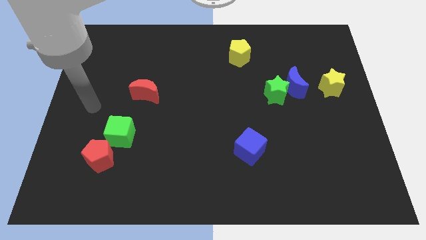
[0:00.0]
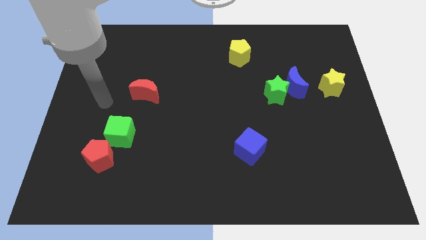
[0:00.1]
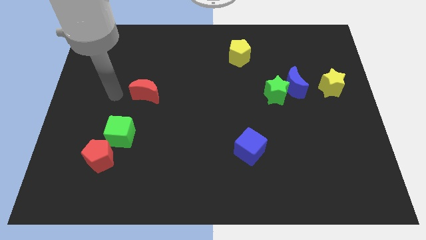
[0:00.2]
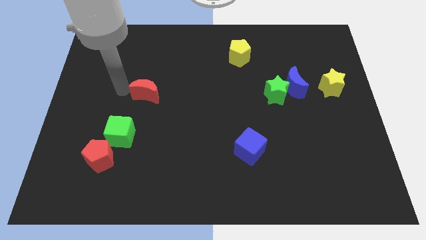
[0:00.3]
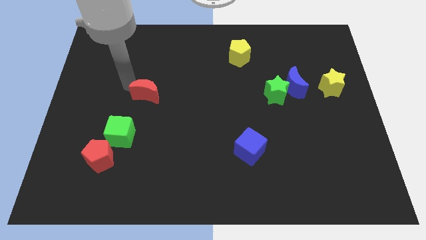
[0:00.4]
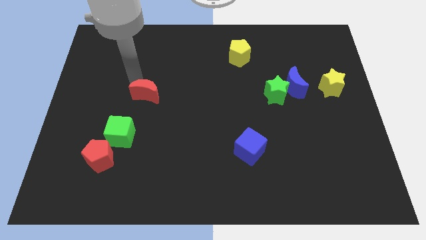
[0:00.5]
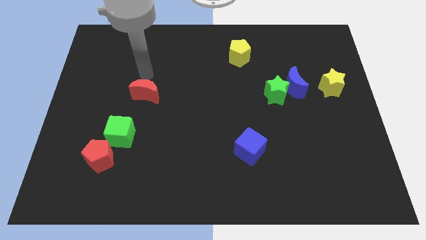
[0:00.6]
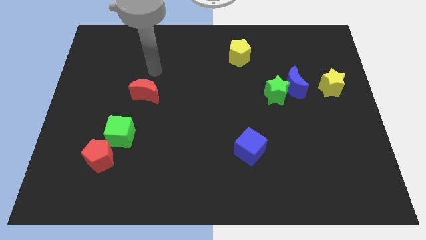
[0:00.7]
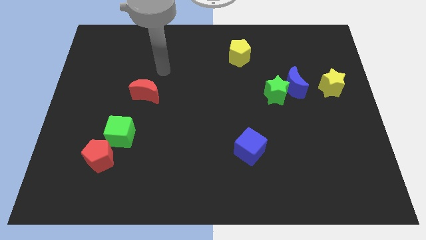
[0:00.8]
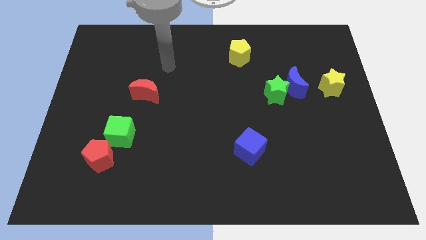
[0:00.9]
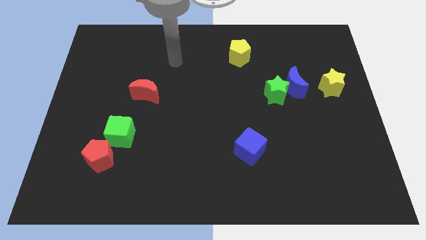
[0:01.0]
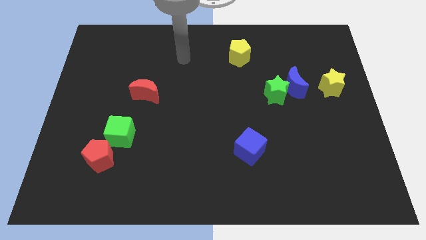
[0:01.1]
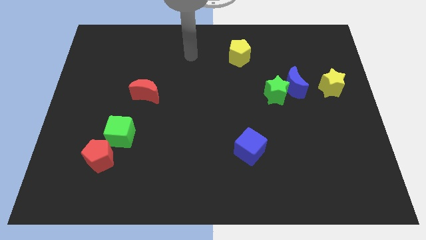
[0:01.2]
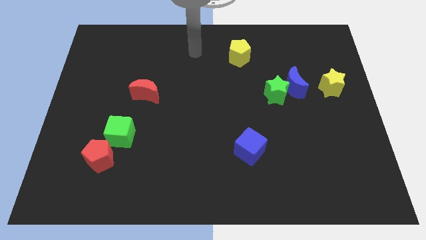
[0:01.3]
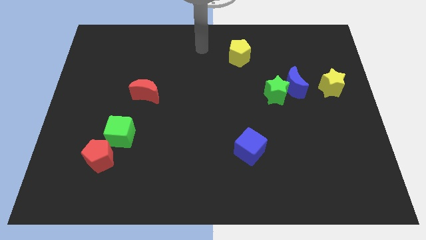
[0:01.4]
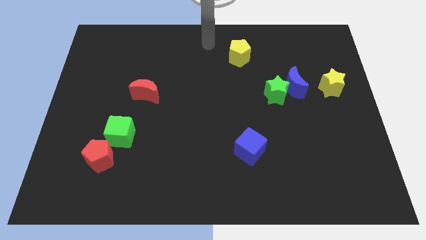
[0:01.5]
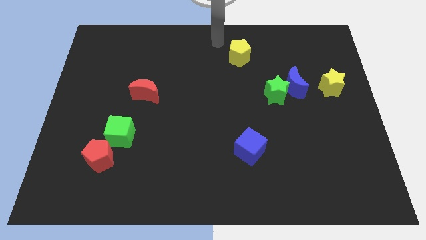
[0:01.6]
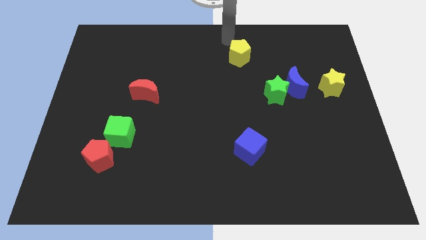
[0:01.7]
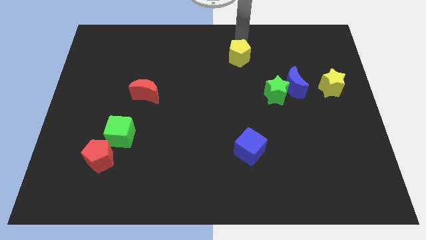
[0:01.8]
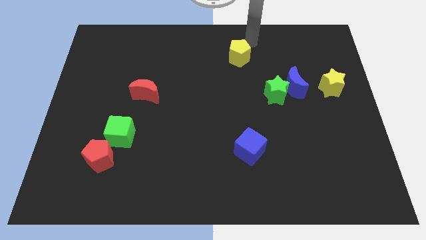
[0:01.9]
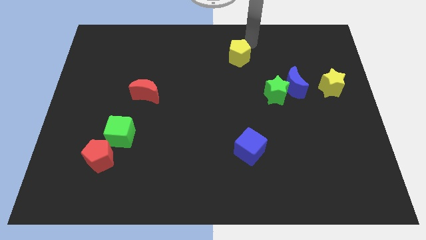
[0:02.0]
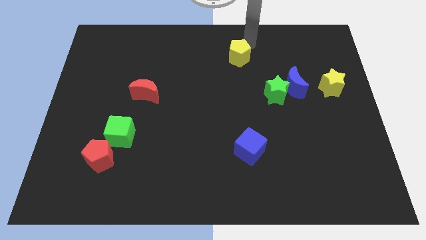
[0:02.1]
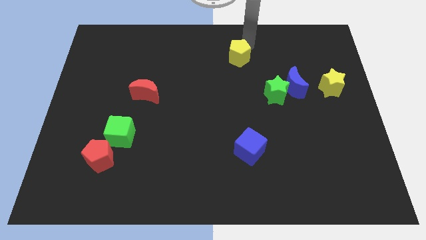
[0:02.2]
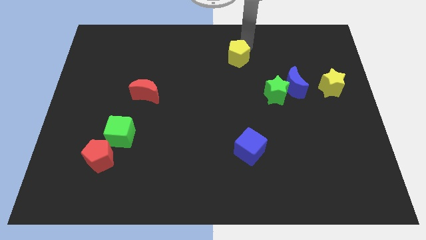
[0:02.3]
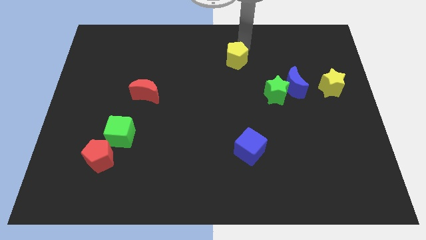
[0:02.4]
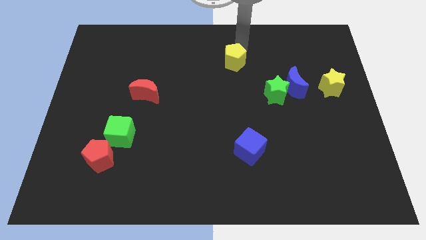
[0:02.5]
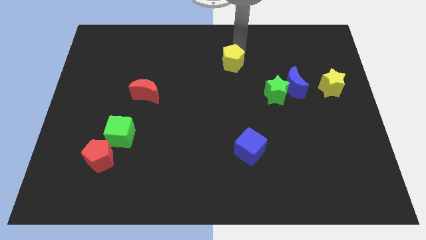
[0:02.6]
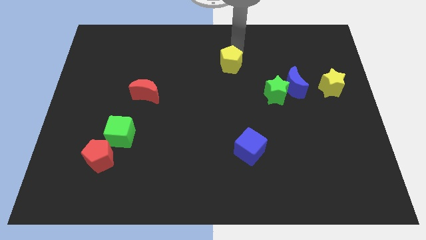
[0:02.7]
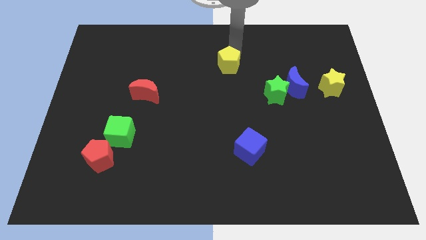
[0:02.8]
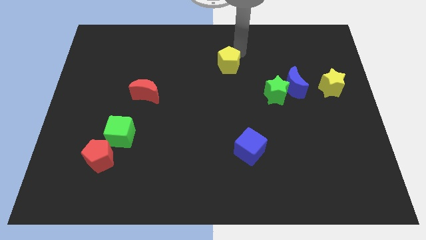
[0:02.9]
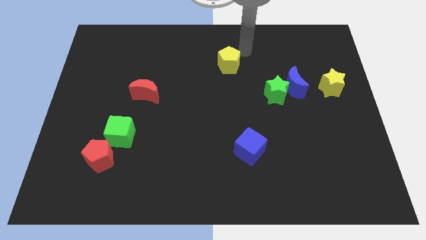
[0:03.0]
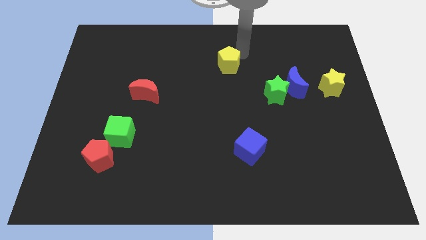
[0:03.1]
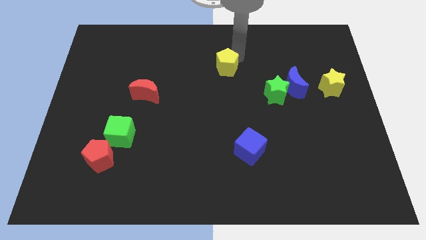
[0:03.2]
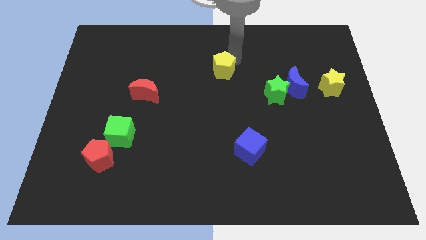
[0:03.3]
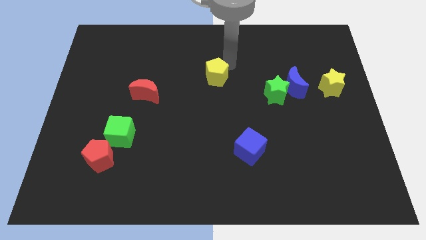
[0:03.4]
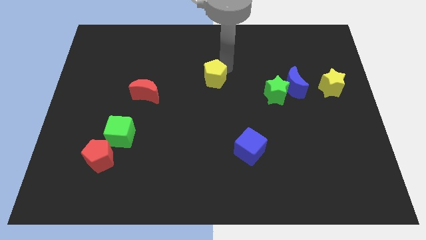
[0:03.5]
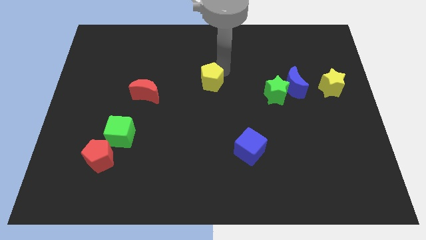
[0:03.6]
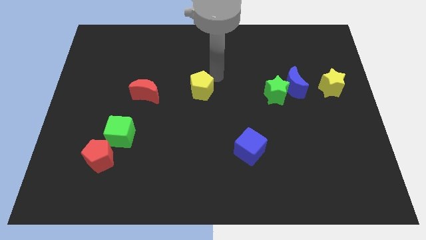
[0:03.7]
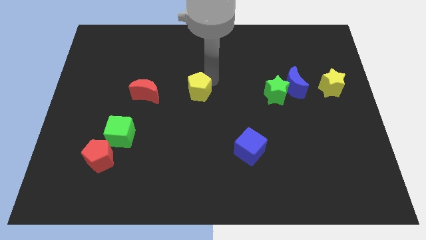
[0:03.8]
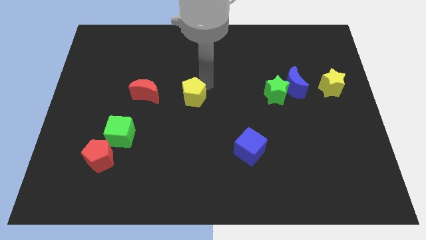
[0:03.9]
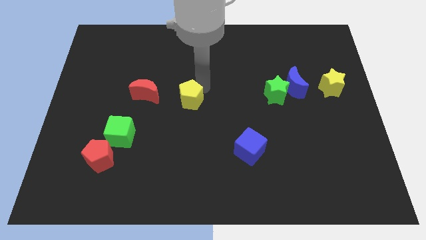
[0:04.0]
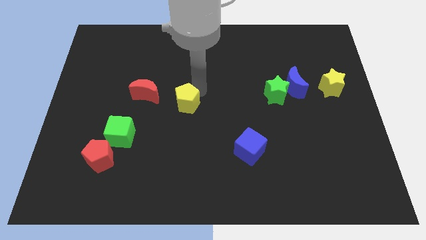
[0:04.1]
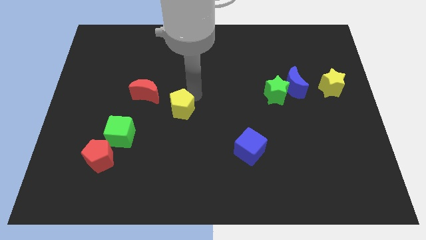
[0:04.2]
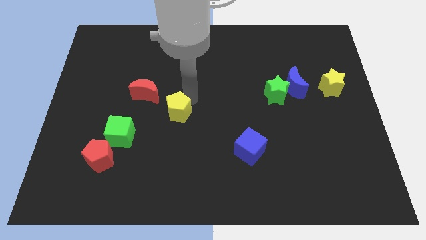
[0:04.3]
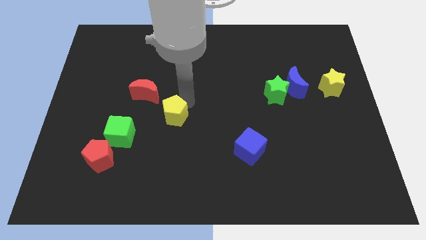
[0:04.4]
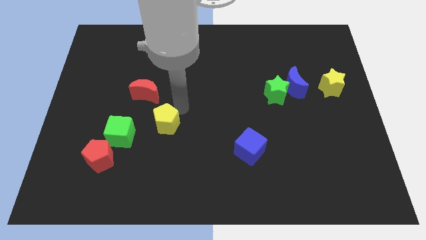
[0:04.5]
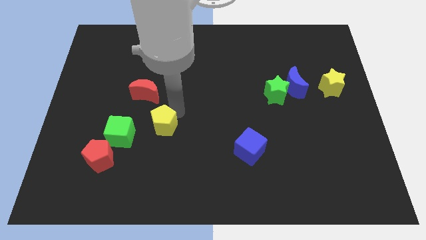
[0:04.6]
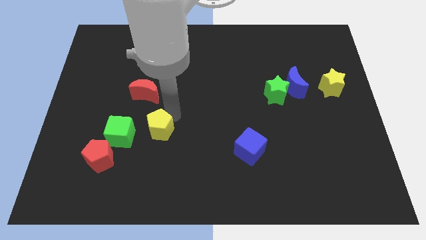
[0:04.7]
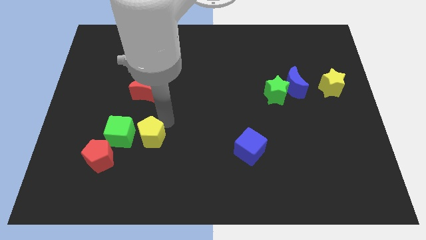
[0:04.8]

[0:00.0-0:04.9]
slide the yellow pentagon to the bottom right of the green cube

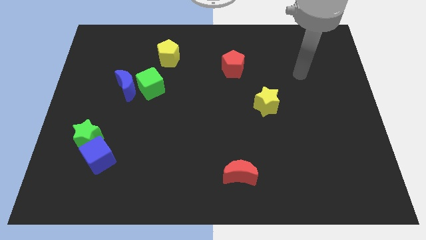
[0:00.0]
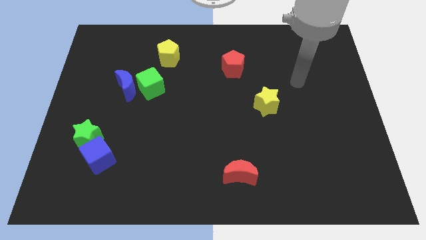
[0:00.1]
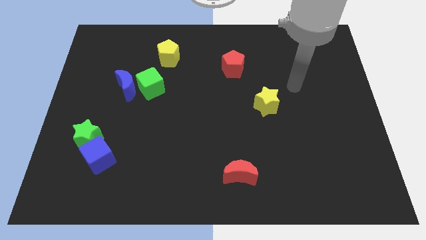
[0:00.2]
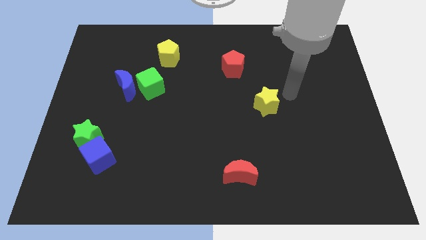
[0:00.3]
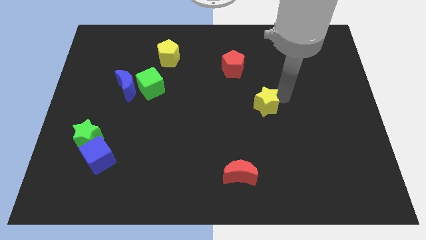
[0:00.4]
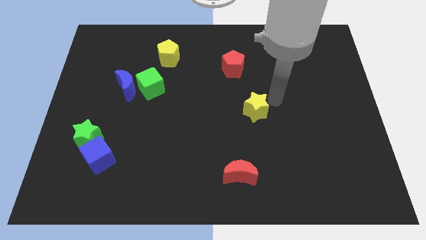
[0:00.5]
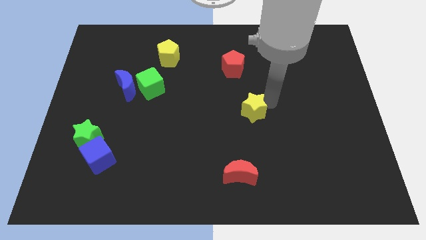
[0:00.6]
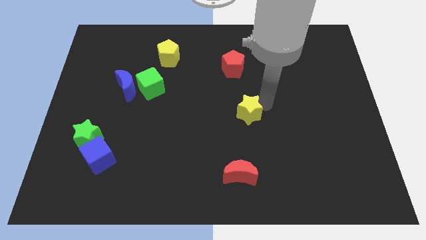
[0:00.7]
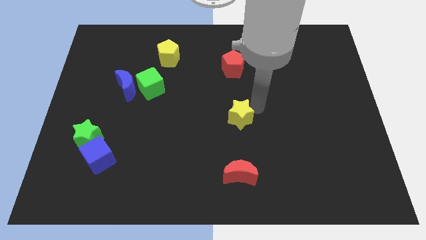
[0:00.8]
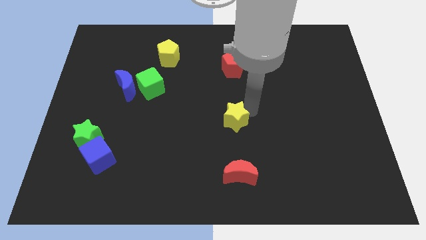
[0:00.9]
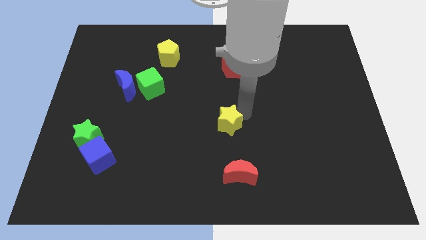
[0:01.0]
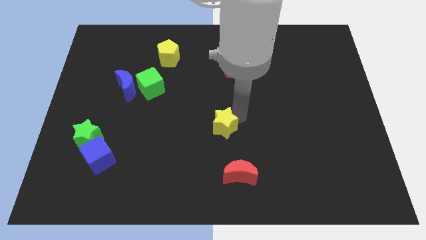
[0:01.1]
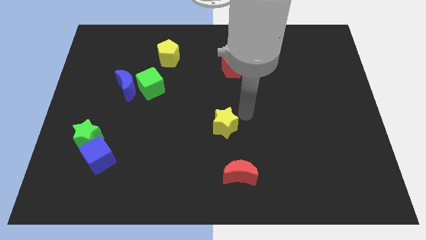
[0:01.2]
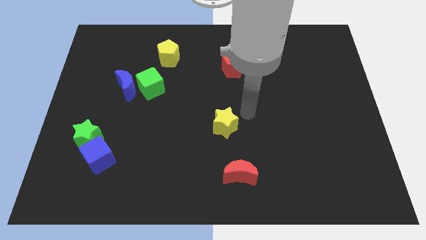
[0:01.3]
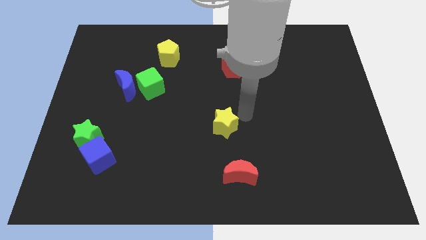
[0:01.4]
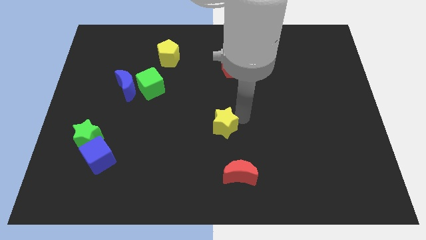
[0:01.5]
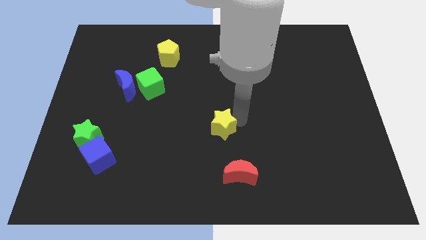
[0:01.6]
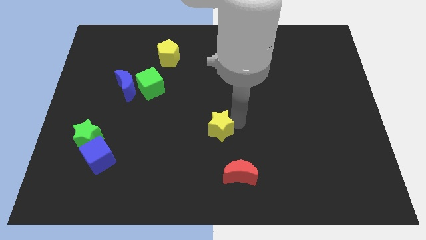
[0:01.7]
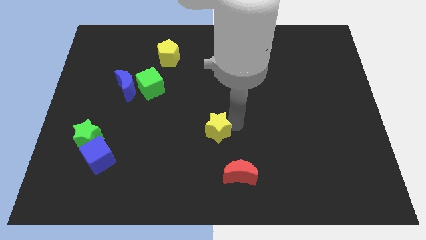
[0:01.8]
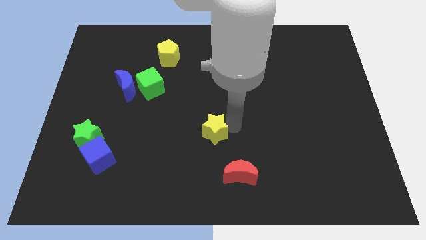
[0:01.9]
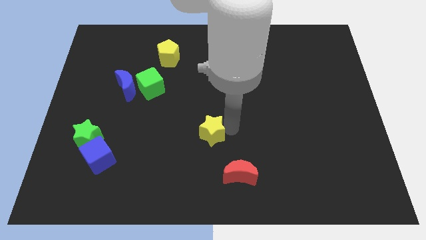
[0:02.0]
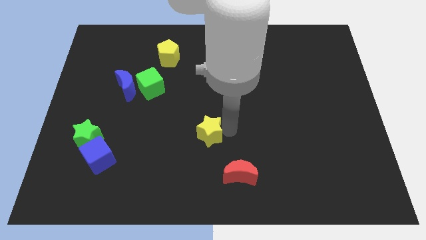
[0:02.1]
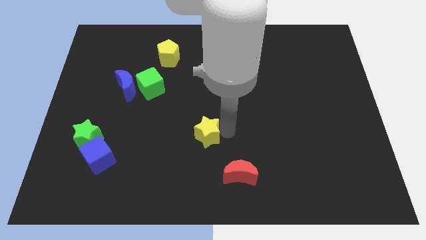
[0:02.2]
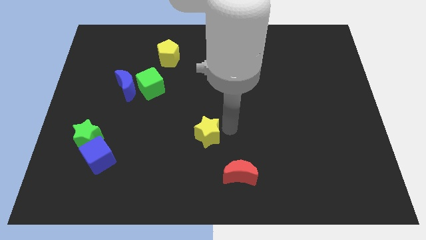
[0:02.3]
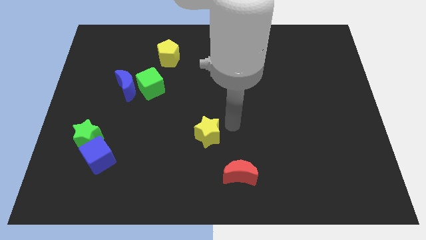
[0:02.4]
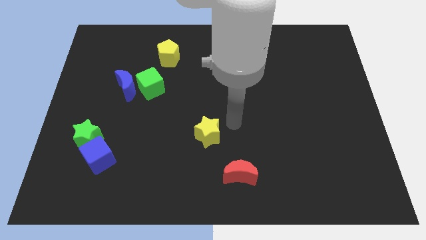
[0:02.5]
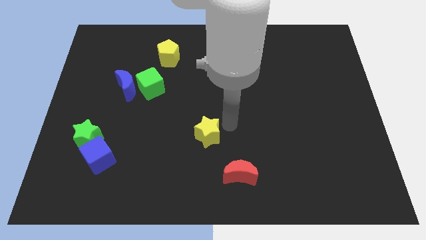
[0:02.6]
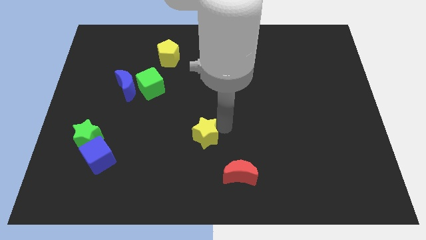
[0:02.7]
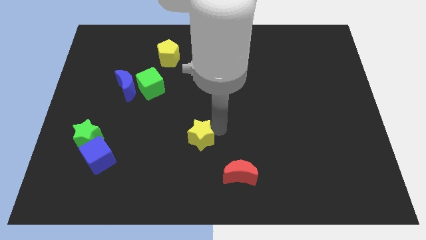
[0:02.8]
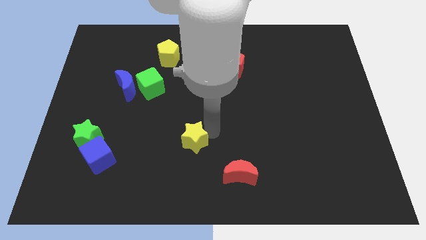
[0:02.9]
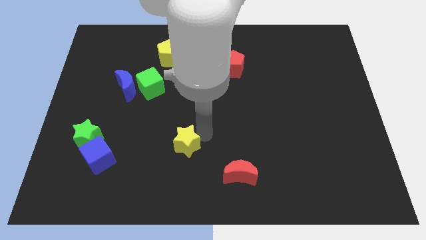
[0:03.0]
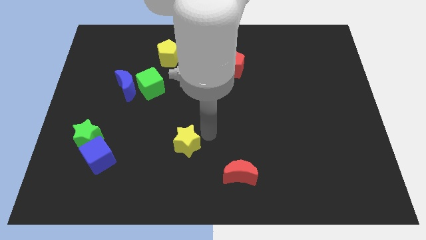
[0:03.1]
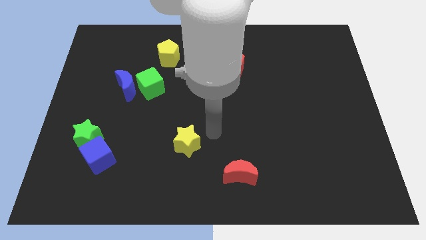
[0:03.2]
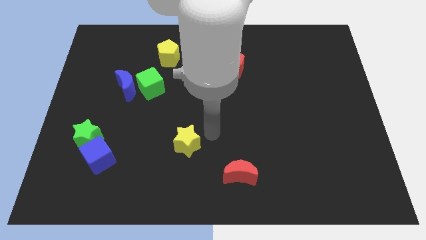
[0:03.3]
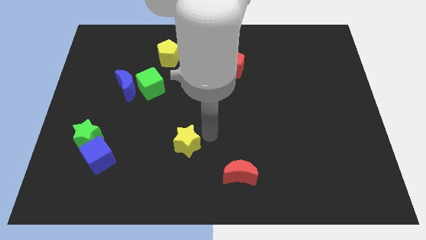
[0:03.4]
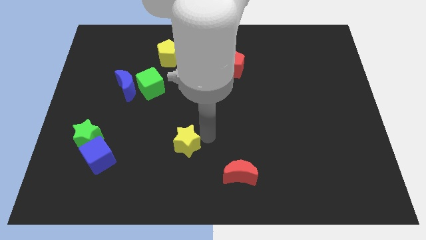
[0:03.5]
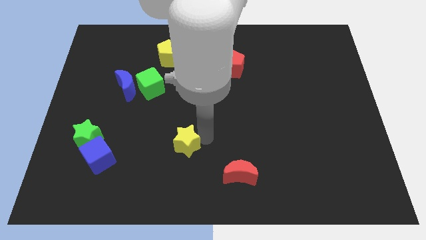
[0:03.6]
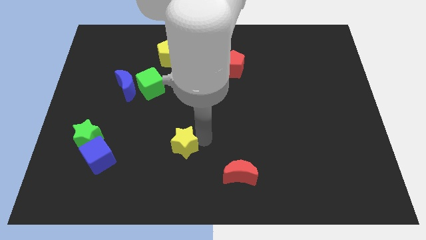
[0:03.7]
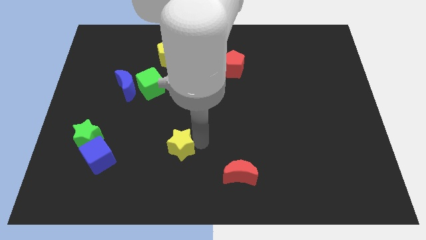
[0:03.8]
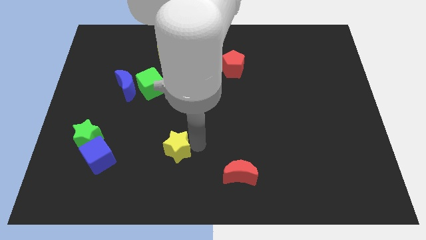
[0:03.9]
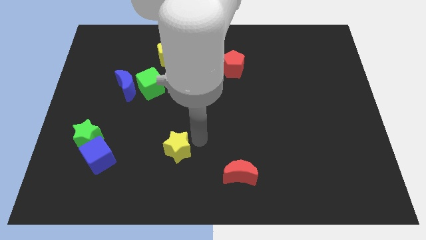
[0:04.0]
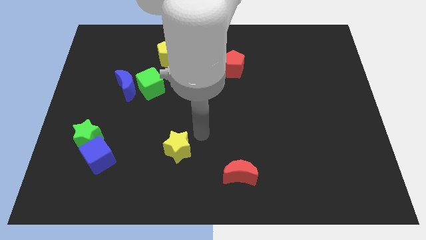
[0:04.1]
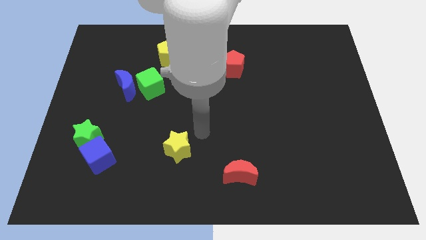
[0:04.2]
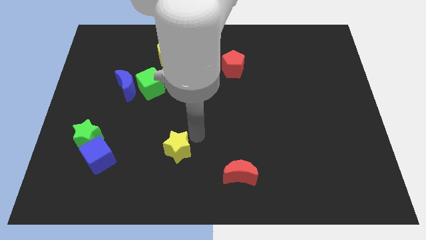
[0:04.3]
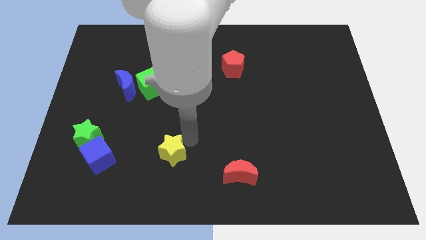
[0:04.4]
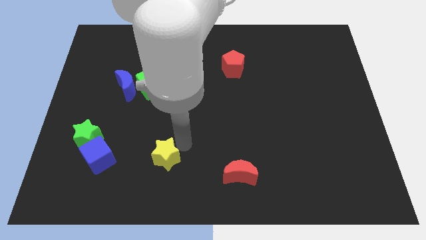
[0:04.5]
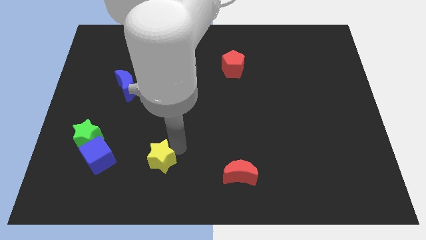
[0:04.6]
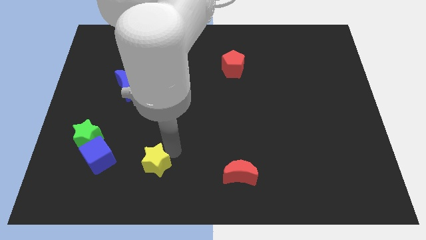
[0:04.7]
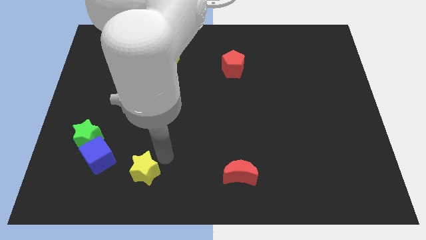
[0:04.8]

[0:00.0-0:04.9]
slide the yellow star to the bottom right side of the blue cube
